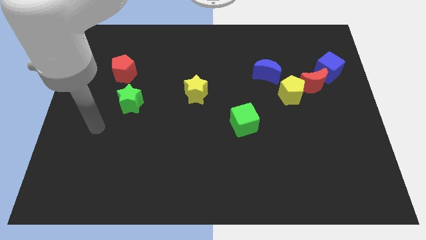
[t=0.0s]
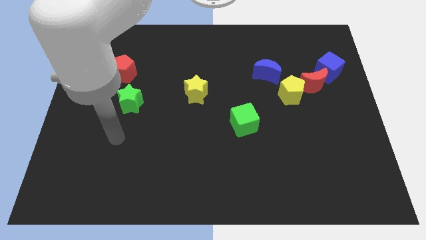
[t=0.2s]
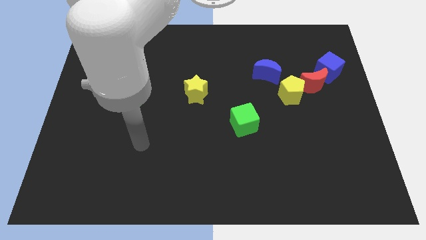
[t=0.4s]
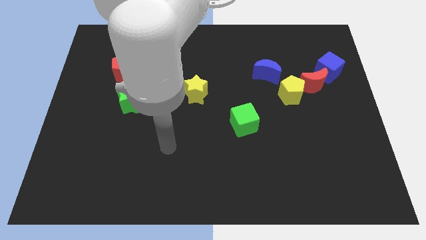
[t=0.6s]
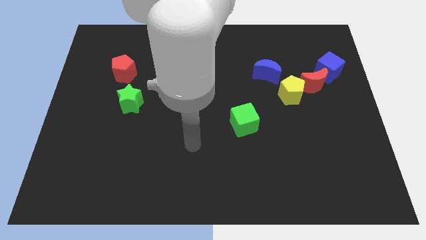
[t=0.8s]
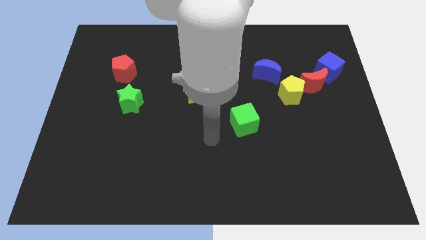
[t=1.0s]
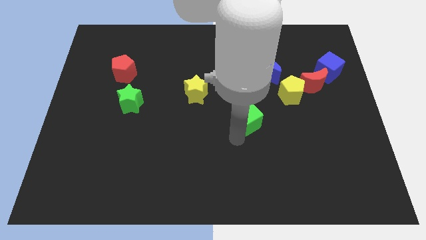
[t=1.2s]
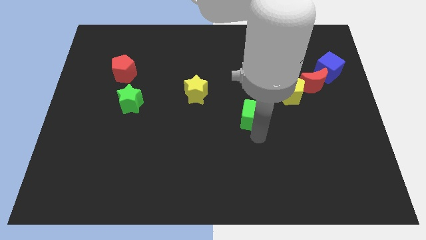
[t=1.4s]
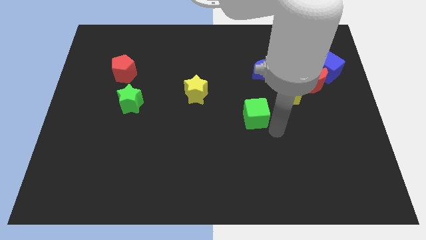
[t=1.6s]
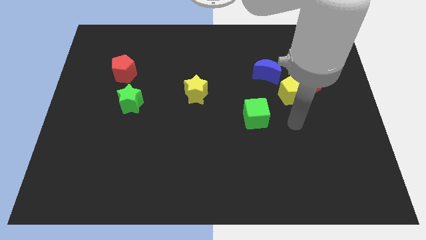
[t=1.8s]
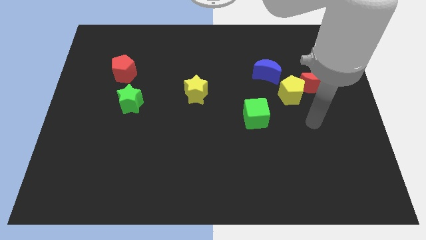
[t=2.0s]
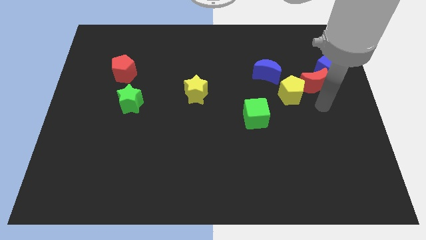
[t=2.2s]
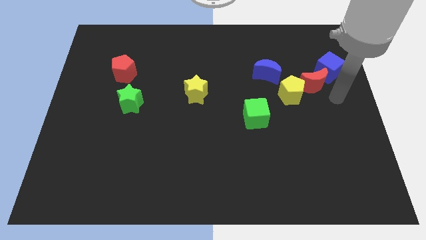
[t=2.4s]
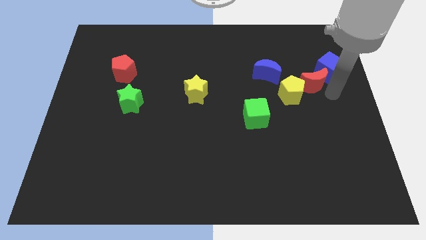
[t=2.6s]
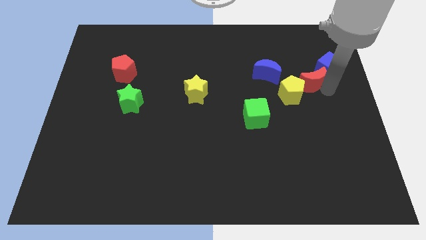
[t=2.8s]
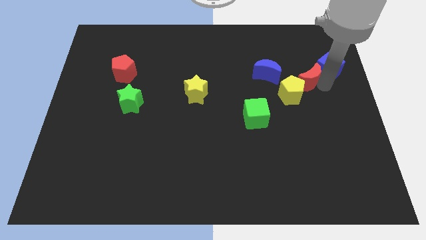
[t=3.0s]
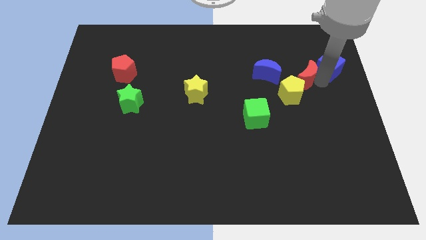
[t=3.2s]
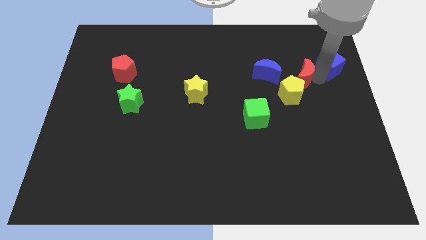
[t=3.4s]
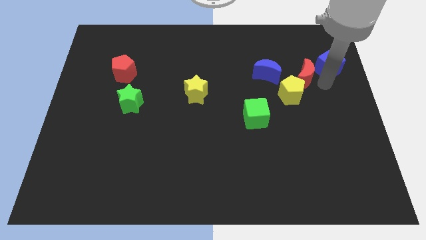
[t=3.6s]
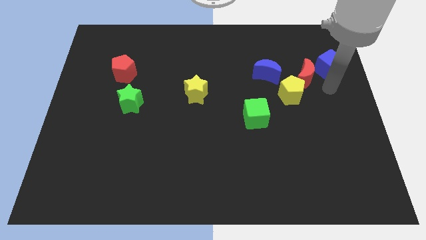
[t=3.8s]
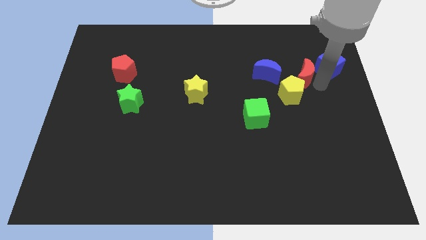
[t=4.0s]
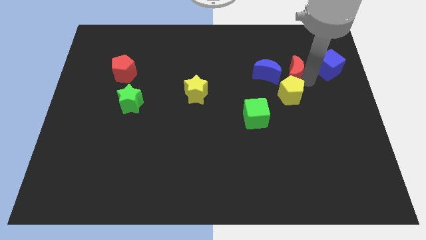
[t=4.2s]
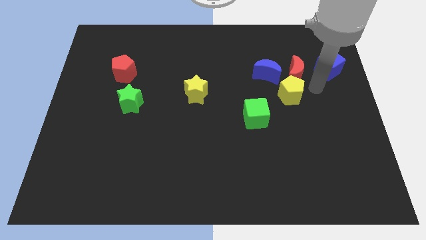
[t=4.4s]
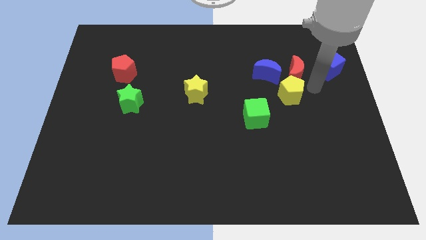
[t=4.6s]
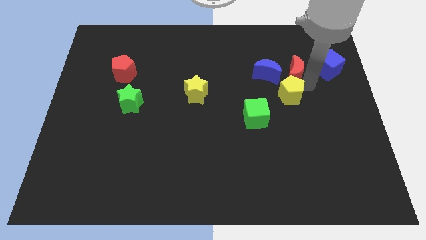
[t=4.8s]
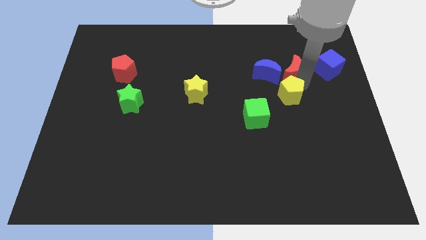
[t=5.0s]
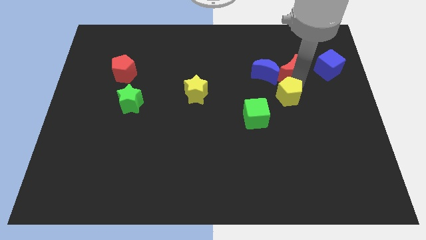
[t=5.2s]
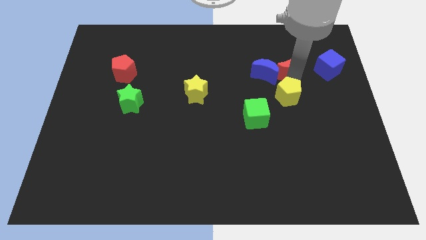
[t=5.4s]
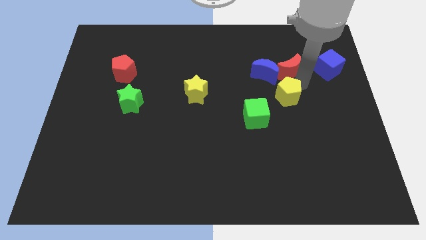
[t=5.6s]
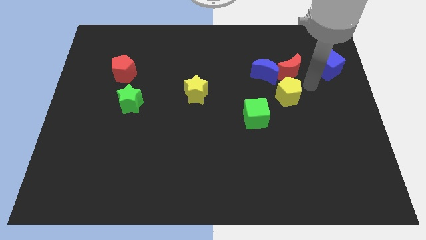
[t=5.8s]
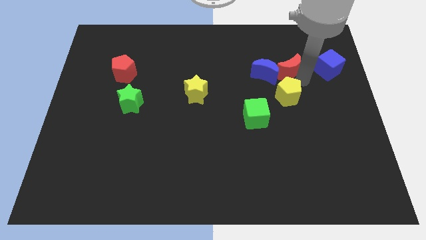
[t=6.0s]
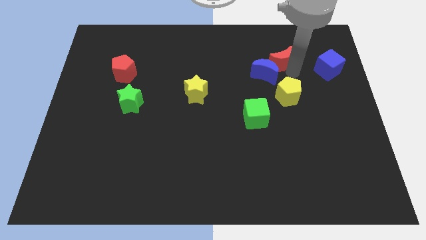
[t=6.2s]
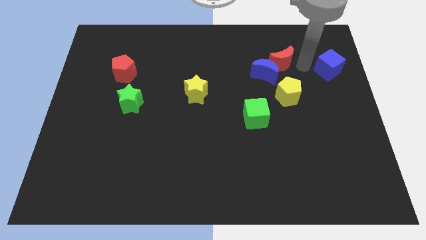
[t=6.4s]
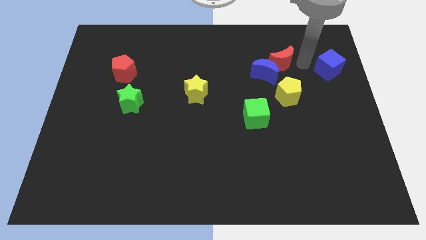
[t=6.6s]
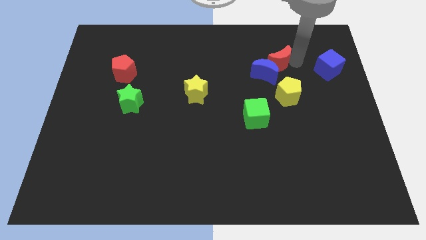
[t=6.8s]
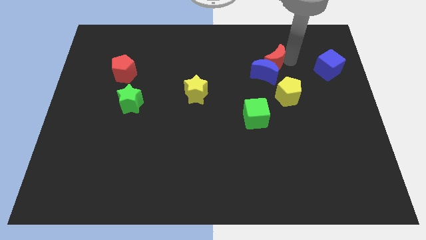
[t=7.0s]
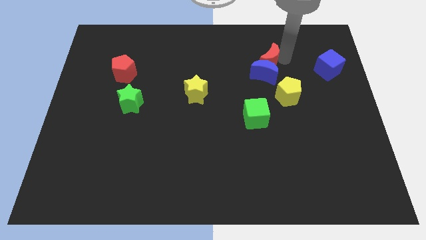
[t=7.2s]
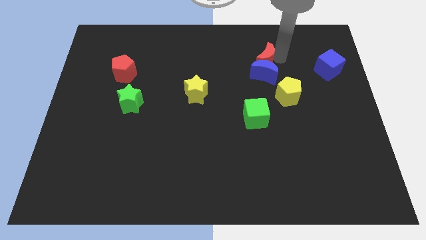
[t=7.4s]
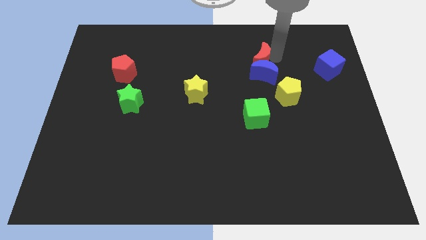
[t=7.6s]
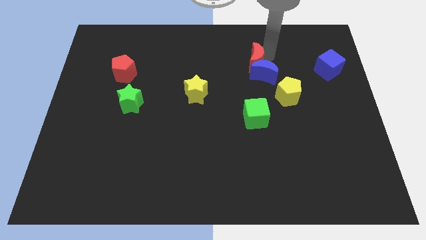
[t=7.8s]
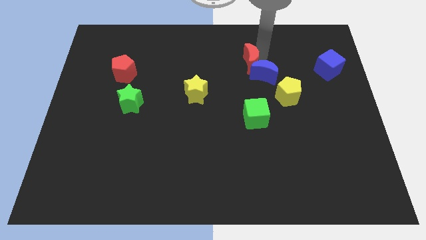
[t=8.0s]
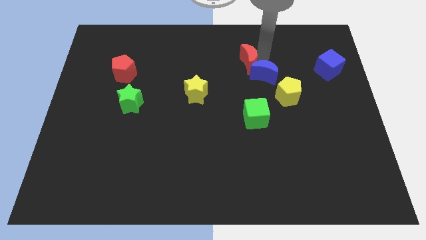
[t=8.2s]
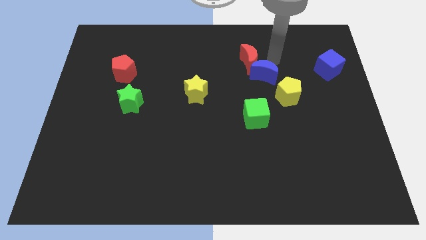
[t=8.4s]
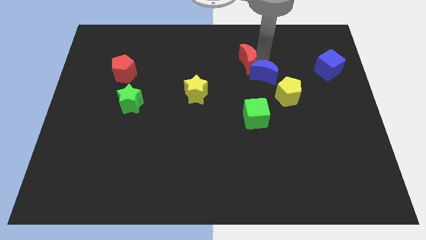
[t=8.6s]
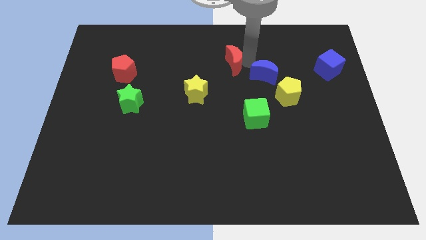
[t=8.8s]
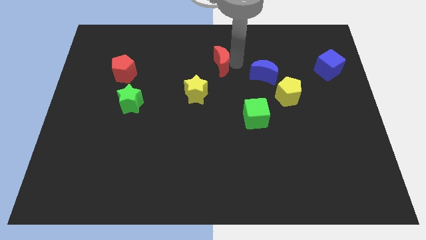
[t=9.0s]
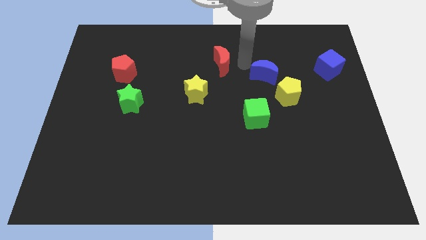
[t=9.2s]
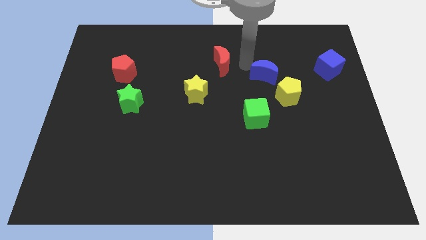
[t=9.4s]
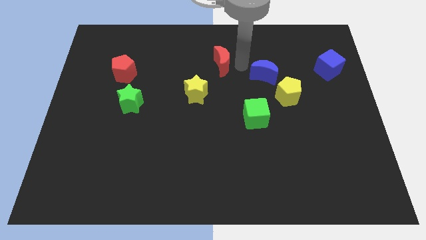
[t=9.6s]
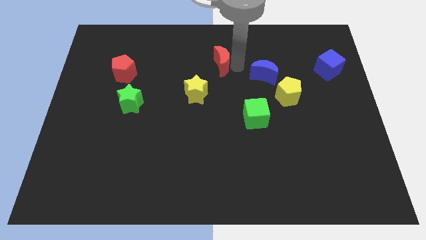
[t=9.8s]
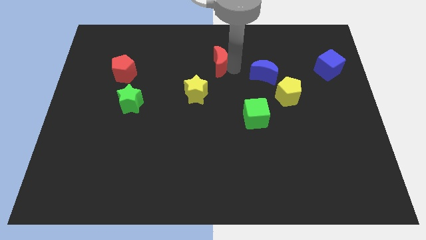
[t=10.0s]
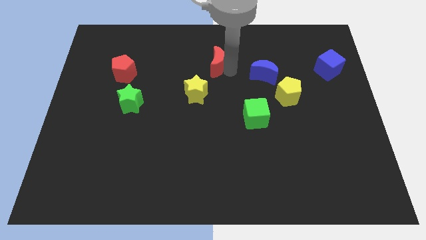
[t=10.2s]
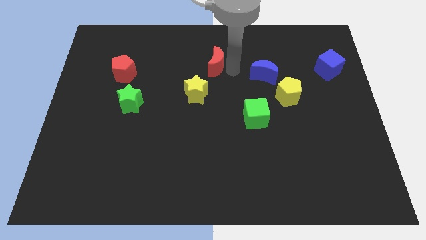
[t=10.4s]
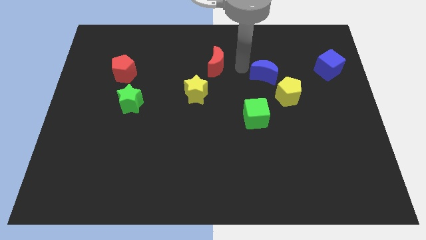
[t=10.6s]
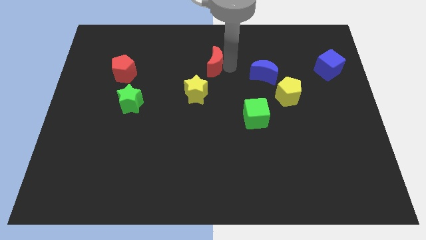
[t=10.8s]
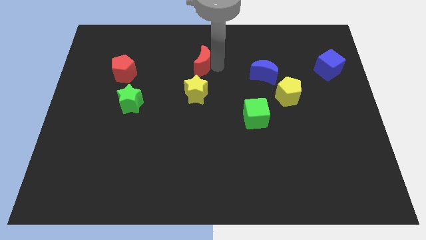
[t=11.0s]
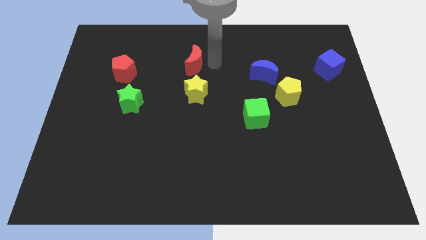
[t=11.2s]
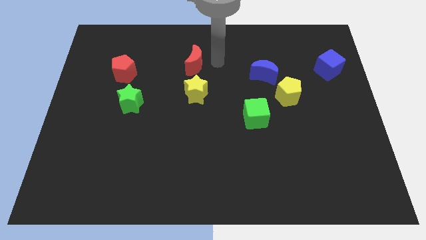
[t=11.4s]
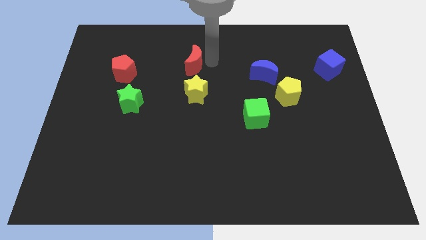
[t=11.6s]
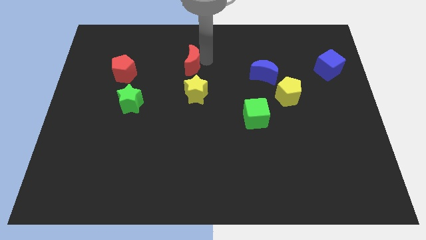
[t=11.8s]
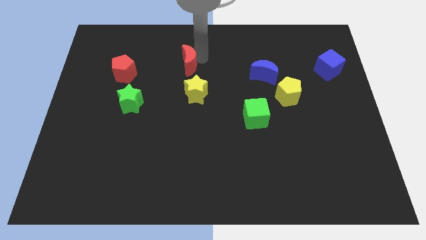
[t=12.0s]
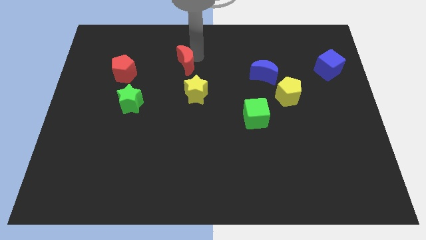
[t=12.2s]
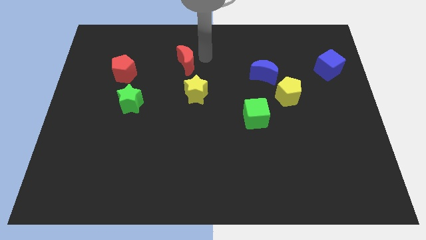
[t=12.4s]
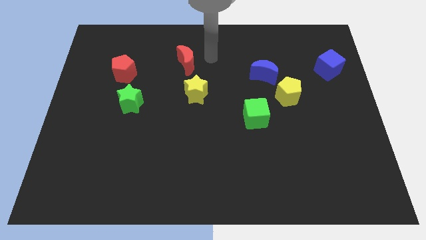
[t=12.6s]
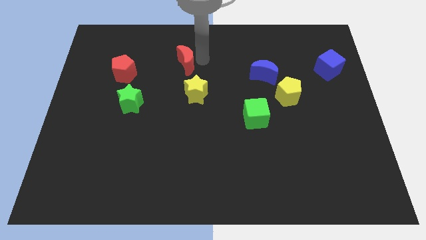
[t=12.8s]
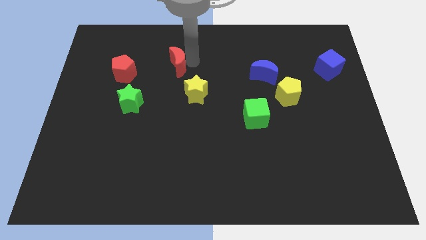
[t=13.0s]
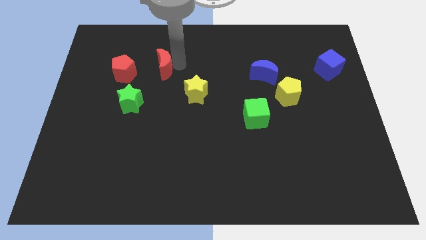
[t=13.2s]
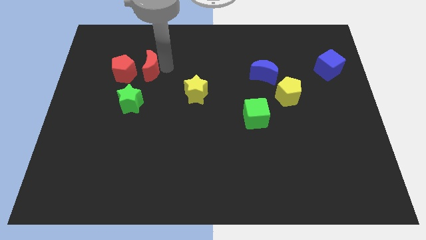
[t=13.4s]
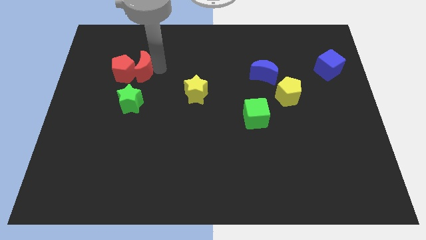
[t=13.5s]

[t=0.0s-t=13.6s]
put the red moon towards the red pentagon

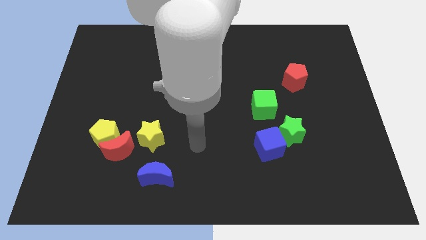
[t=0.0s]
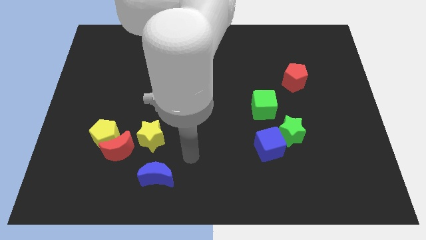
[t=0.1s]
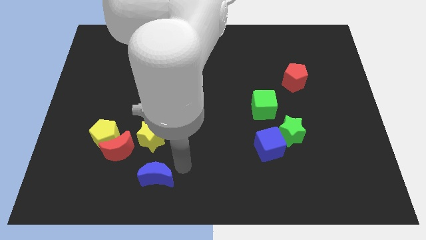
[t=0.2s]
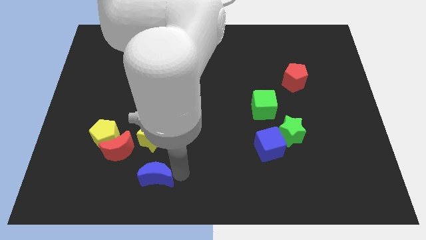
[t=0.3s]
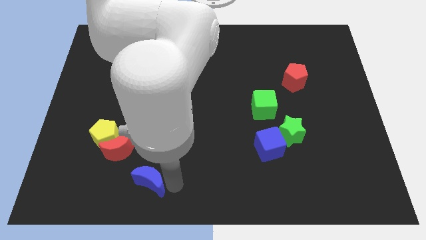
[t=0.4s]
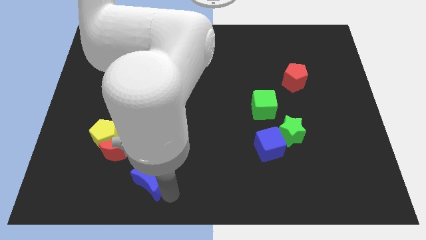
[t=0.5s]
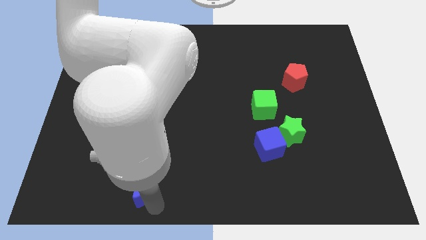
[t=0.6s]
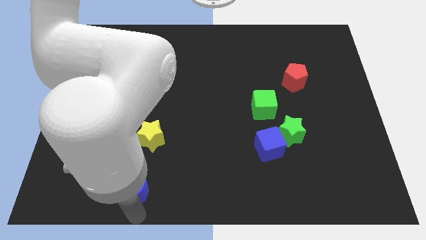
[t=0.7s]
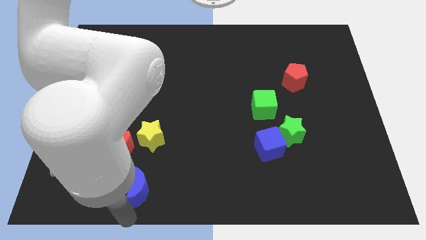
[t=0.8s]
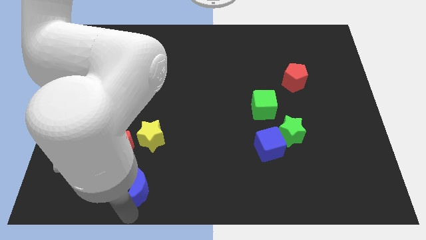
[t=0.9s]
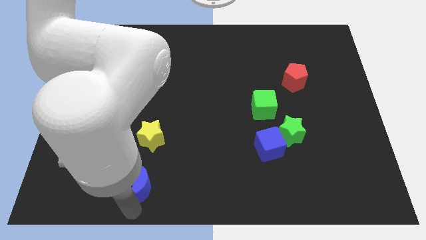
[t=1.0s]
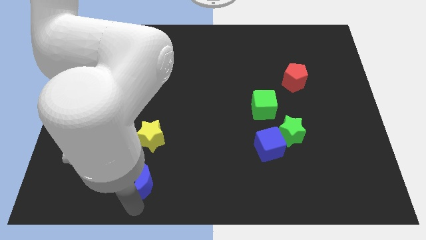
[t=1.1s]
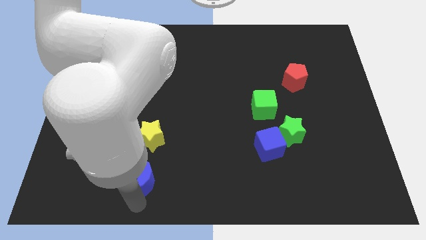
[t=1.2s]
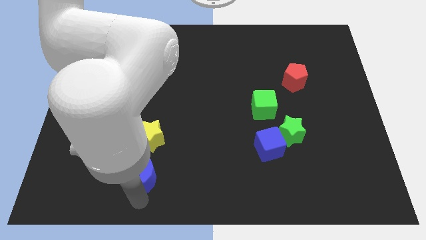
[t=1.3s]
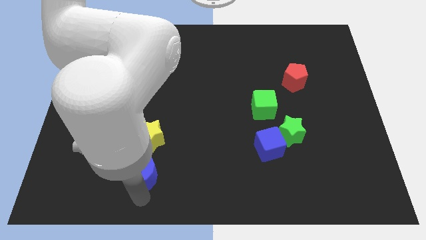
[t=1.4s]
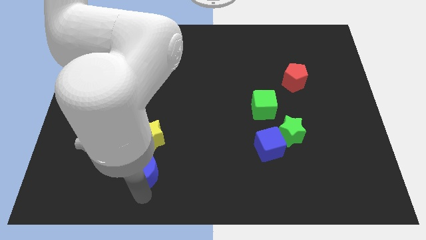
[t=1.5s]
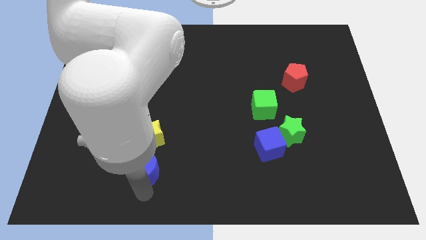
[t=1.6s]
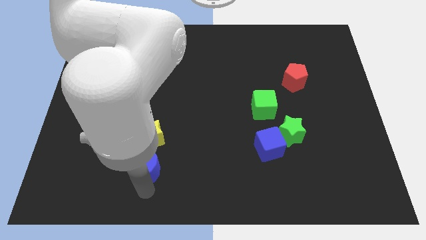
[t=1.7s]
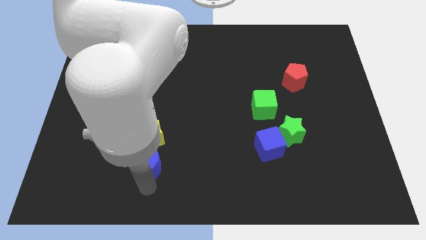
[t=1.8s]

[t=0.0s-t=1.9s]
move the blue moon next to the yellow star
